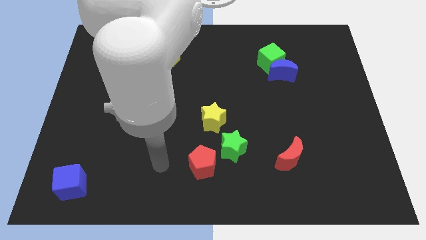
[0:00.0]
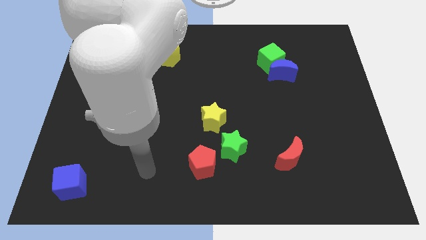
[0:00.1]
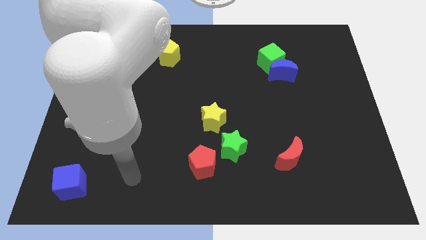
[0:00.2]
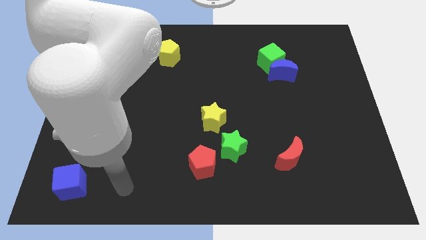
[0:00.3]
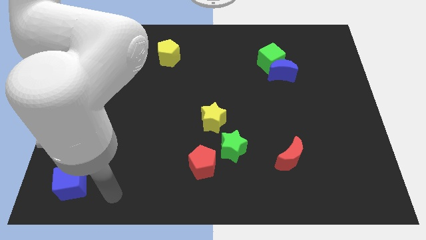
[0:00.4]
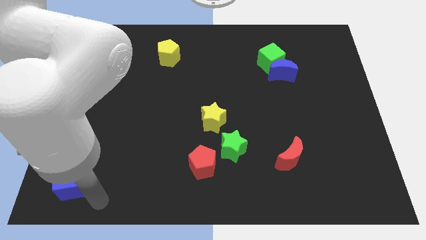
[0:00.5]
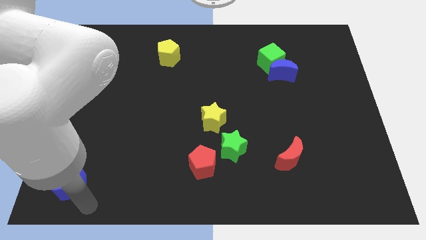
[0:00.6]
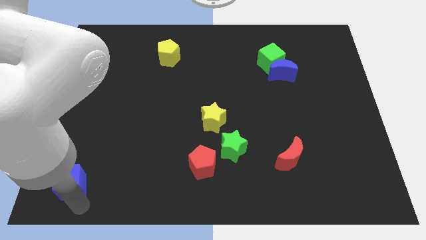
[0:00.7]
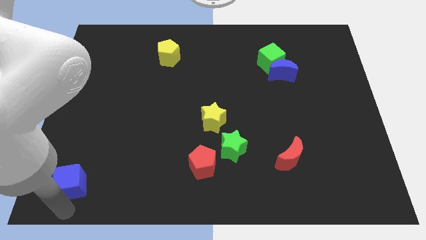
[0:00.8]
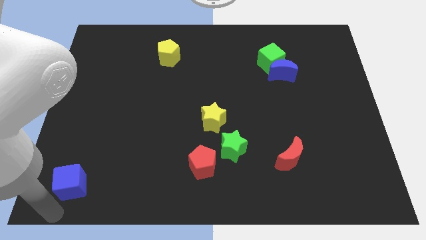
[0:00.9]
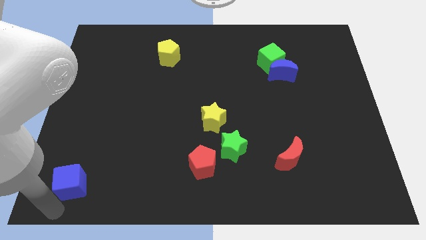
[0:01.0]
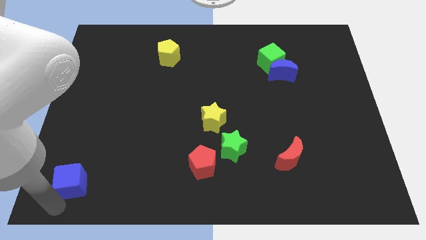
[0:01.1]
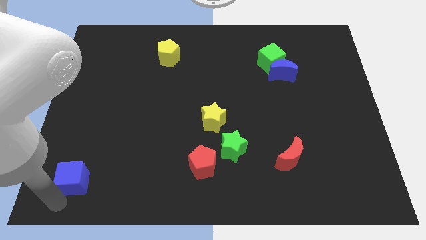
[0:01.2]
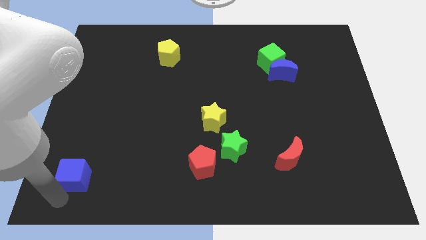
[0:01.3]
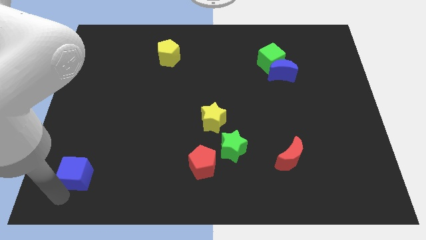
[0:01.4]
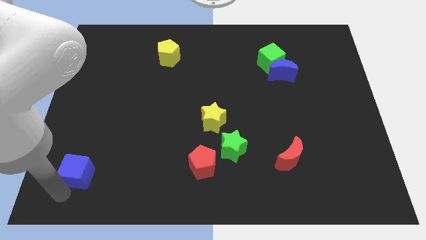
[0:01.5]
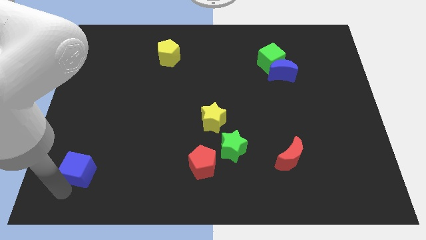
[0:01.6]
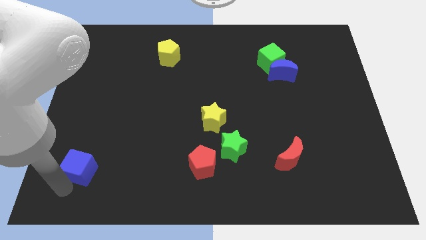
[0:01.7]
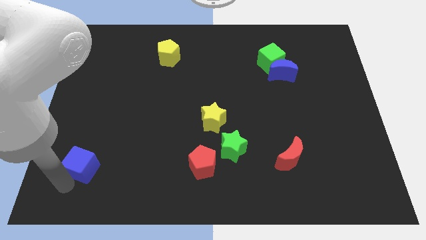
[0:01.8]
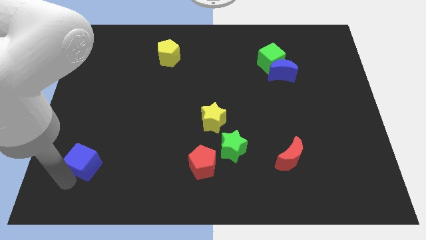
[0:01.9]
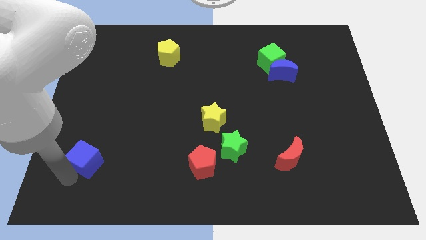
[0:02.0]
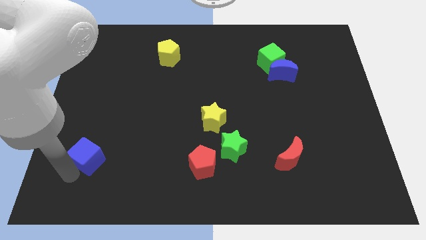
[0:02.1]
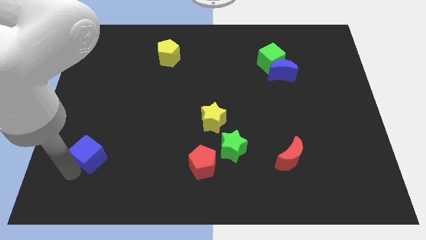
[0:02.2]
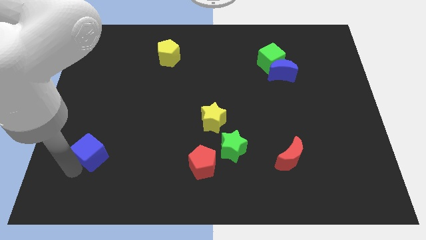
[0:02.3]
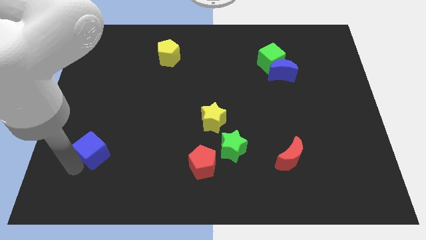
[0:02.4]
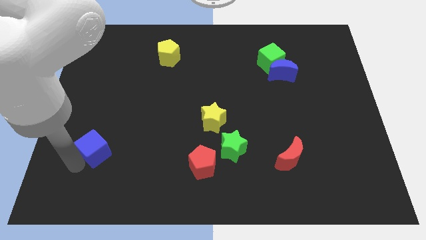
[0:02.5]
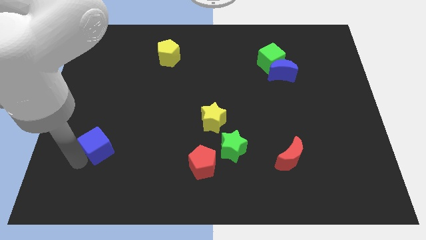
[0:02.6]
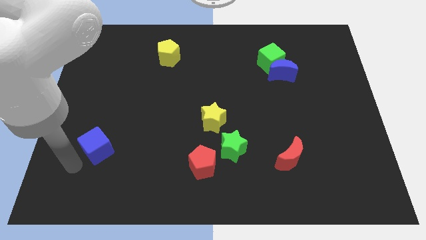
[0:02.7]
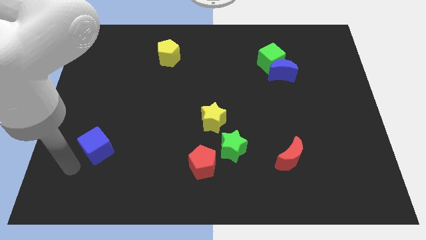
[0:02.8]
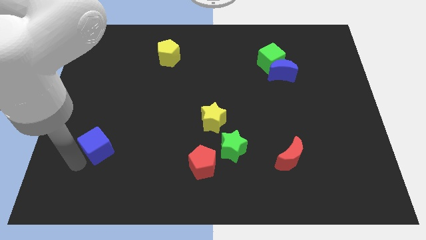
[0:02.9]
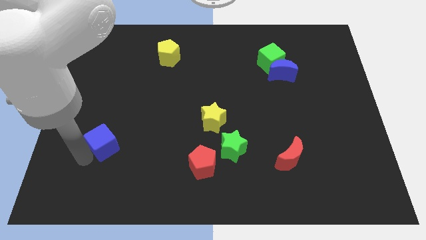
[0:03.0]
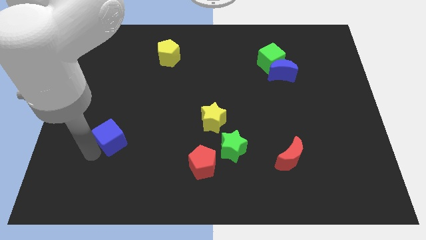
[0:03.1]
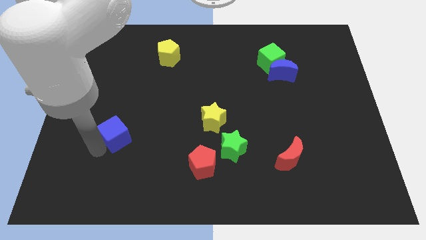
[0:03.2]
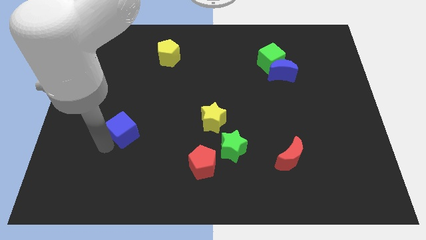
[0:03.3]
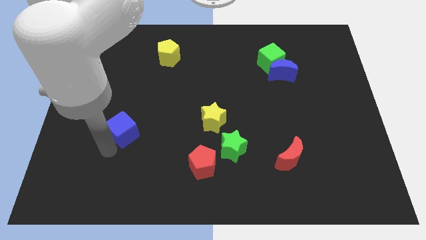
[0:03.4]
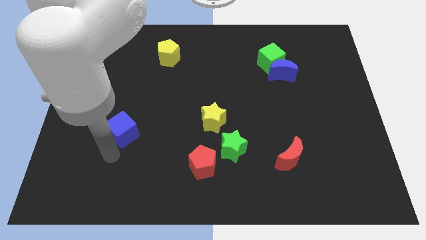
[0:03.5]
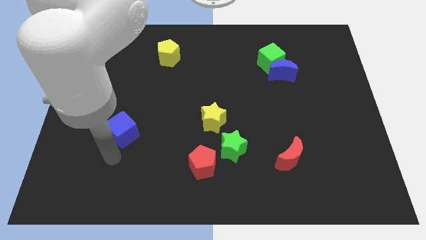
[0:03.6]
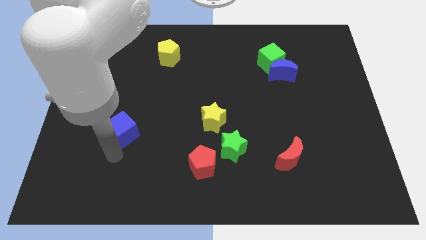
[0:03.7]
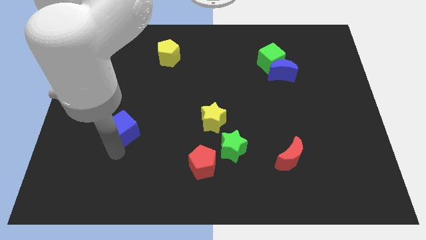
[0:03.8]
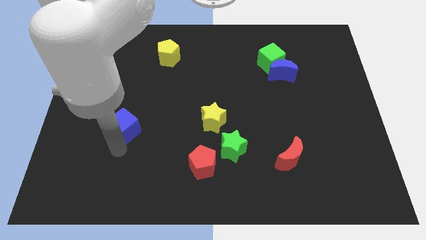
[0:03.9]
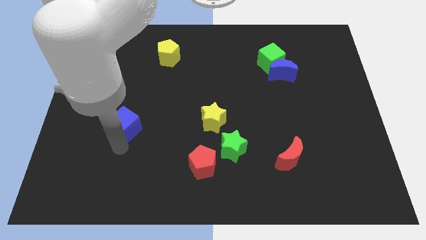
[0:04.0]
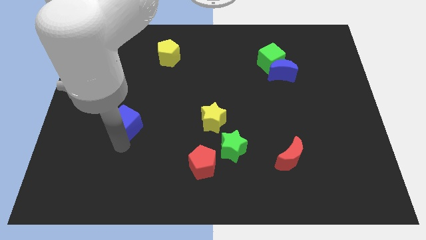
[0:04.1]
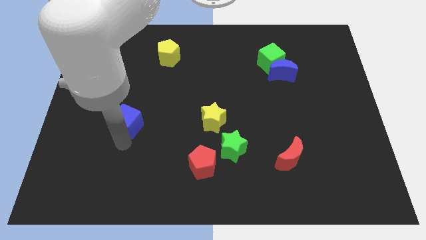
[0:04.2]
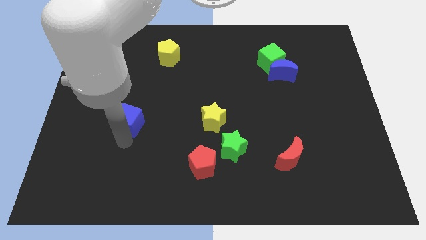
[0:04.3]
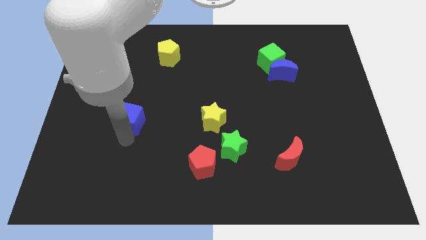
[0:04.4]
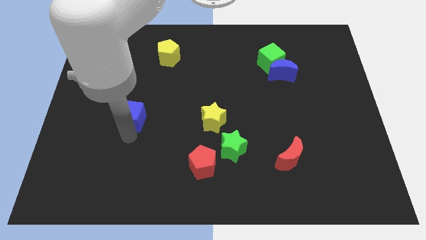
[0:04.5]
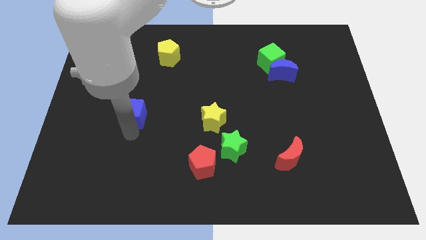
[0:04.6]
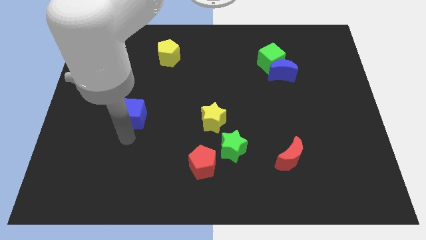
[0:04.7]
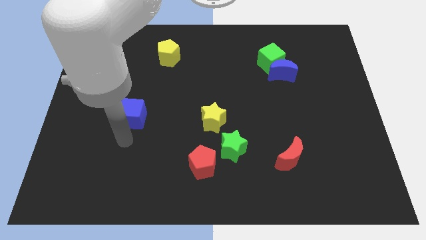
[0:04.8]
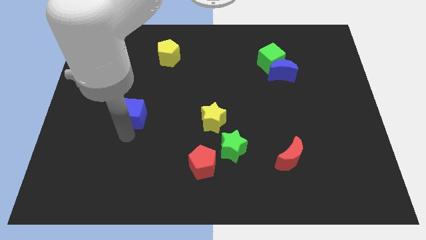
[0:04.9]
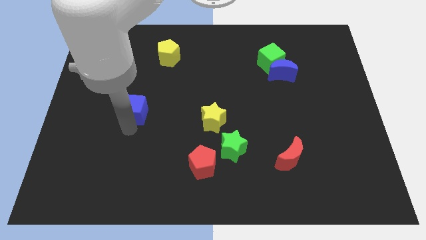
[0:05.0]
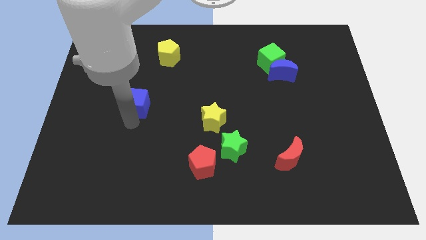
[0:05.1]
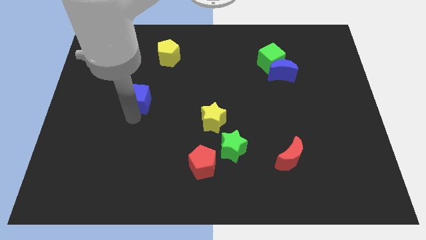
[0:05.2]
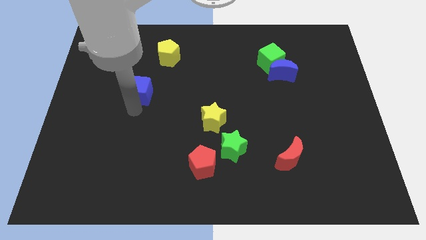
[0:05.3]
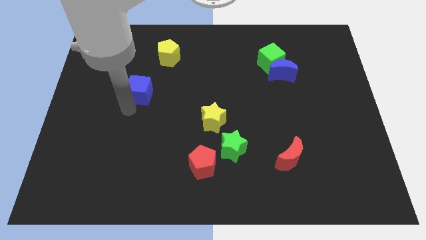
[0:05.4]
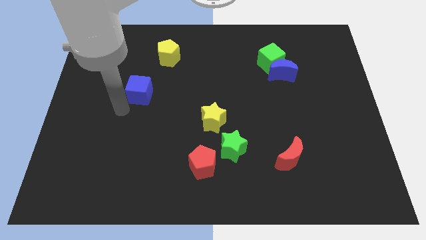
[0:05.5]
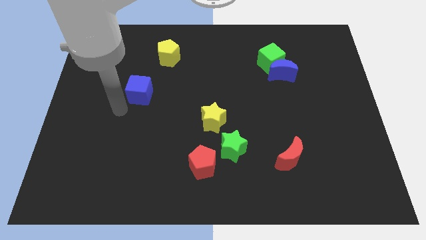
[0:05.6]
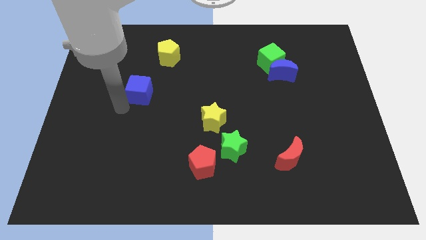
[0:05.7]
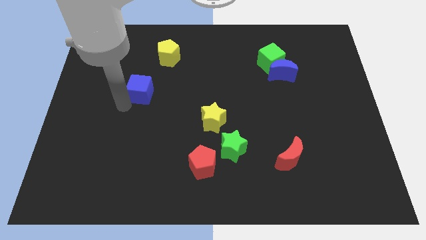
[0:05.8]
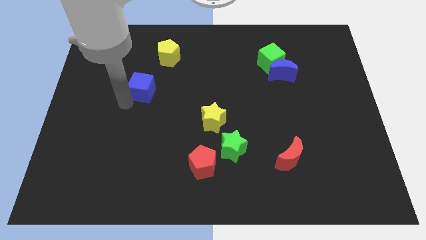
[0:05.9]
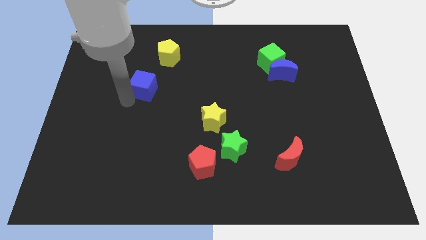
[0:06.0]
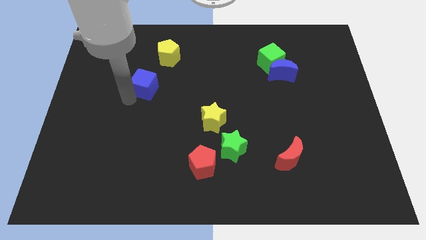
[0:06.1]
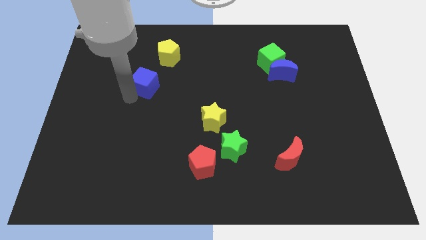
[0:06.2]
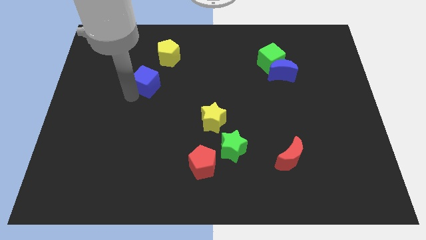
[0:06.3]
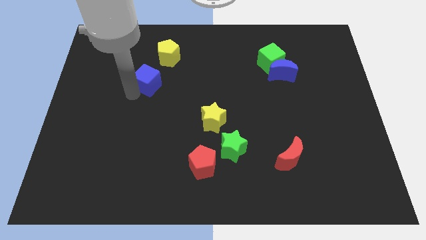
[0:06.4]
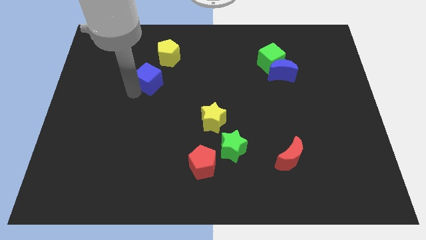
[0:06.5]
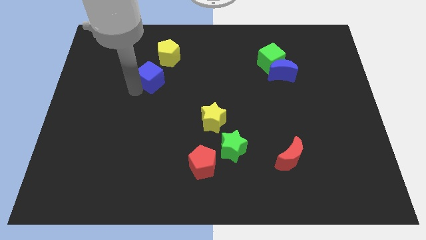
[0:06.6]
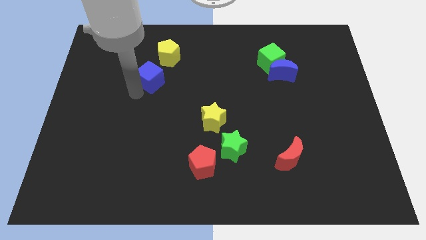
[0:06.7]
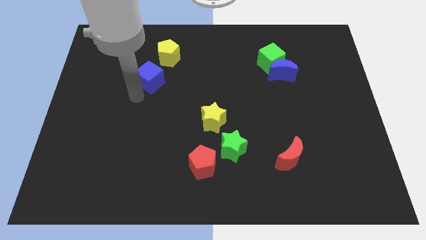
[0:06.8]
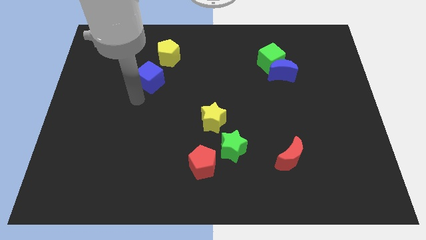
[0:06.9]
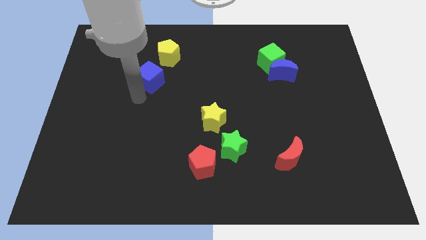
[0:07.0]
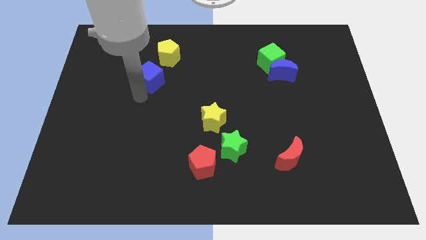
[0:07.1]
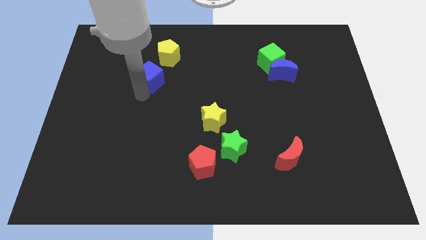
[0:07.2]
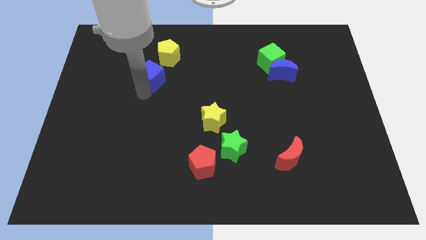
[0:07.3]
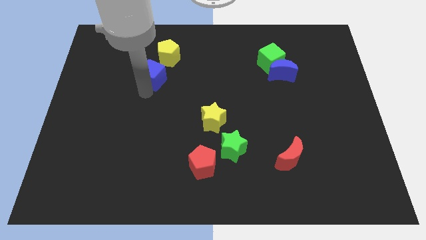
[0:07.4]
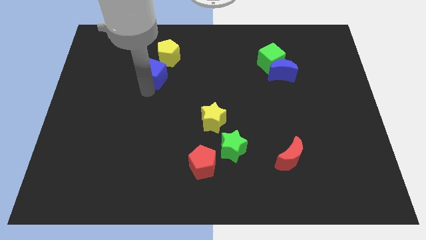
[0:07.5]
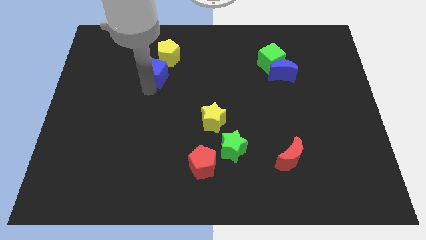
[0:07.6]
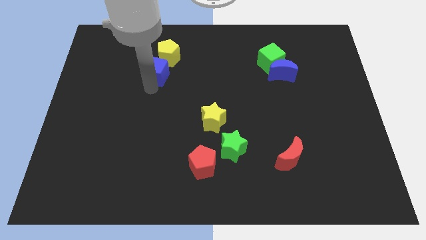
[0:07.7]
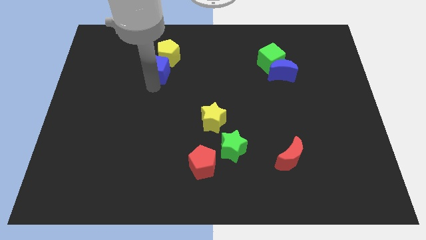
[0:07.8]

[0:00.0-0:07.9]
put the blue cube to the yellow pentagon
